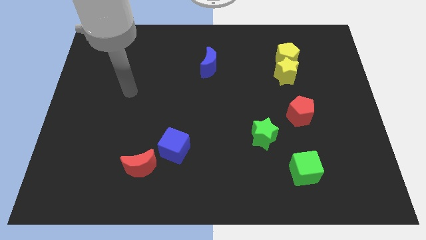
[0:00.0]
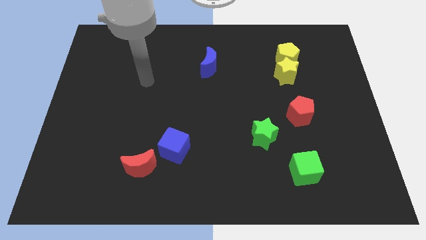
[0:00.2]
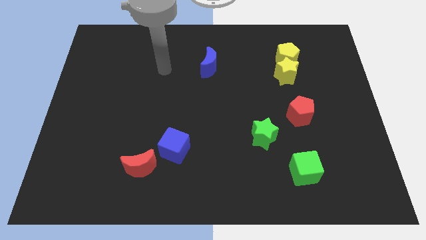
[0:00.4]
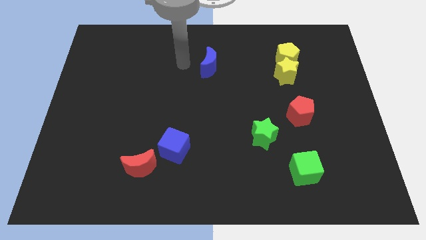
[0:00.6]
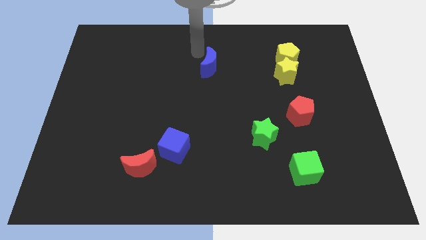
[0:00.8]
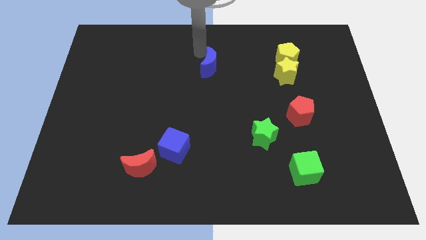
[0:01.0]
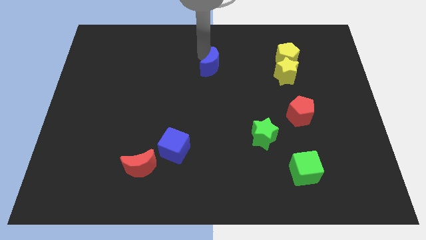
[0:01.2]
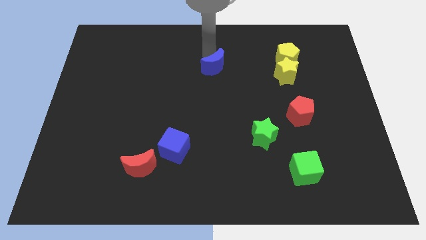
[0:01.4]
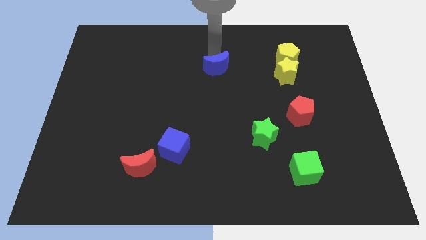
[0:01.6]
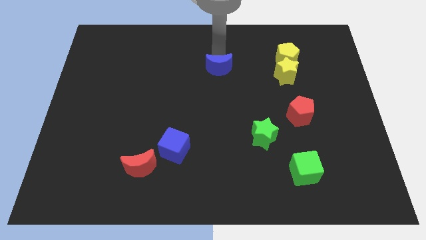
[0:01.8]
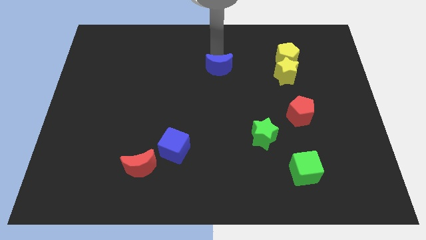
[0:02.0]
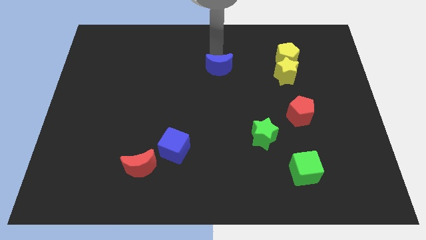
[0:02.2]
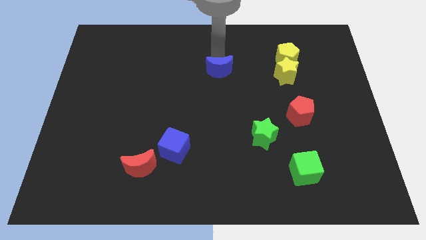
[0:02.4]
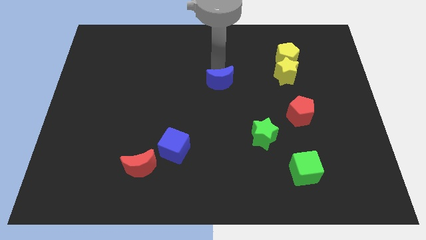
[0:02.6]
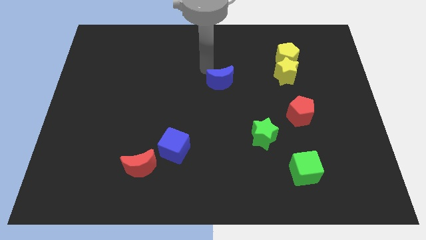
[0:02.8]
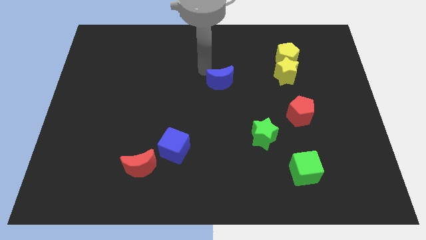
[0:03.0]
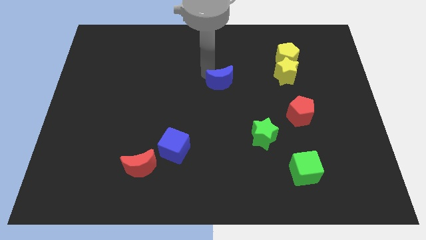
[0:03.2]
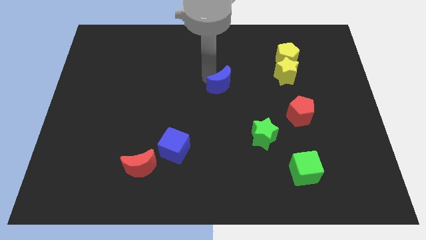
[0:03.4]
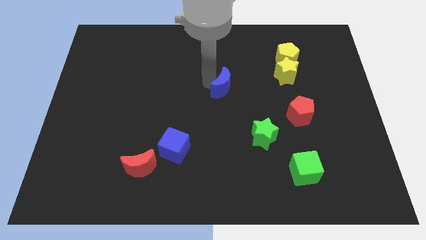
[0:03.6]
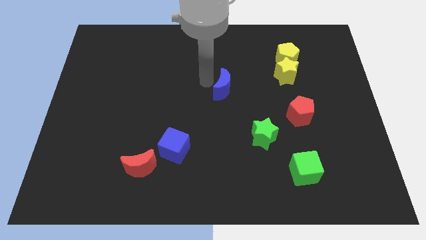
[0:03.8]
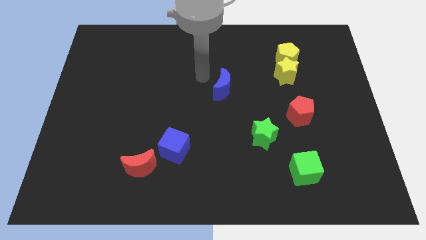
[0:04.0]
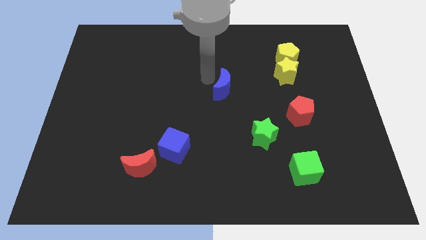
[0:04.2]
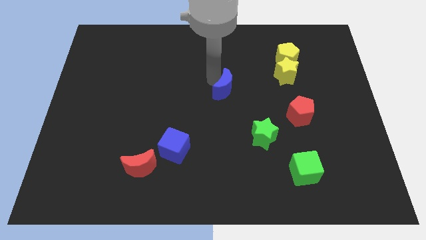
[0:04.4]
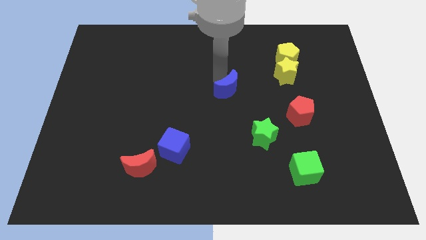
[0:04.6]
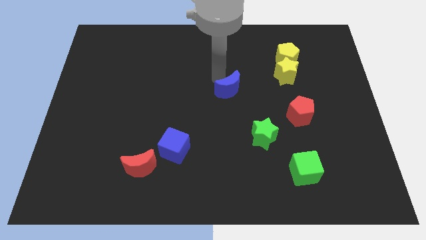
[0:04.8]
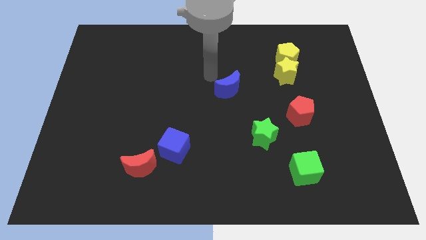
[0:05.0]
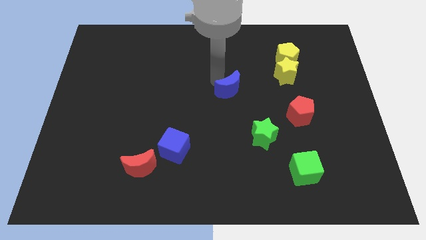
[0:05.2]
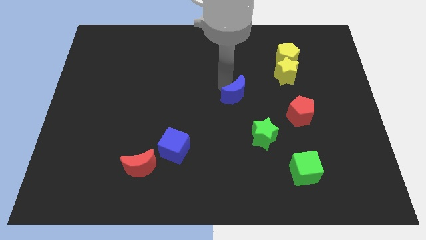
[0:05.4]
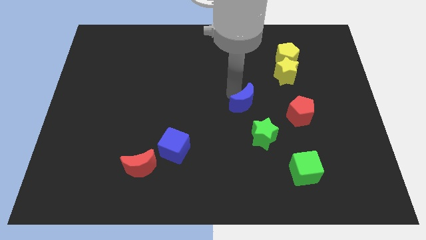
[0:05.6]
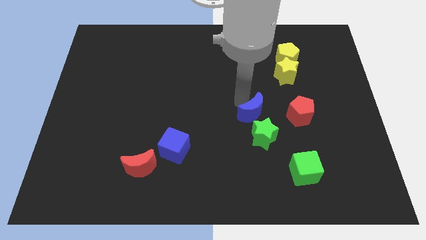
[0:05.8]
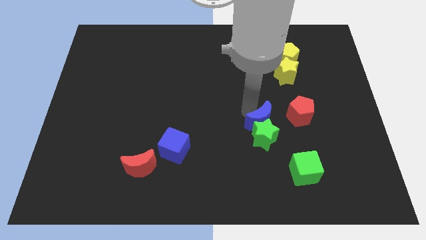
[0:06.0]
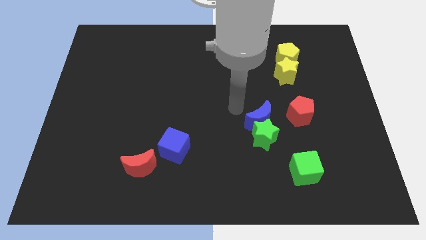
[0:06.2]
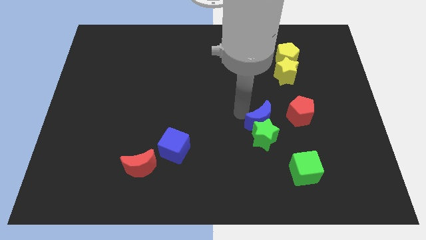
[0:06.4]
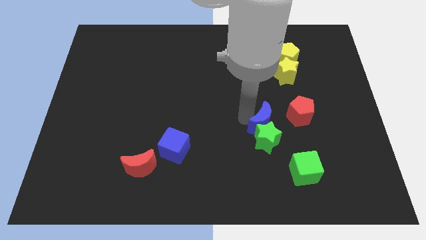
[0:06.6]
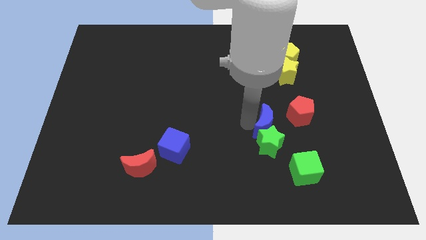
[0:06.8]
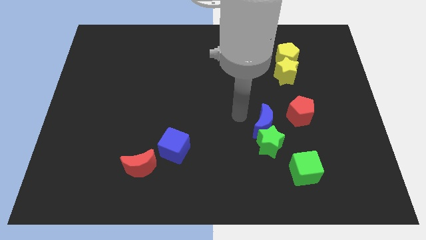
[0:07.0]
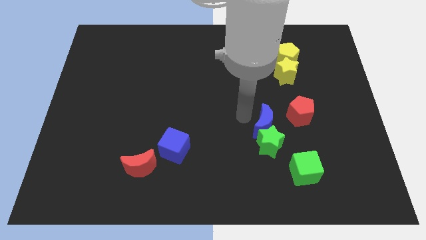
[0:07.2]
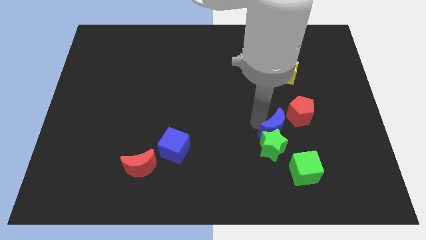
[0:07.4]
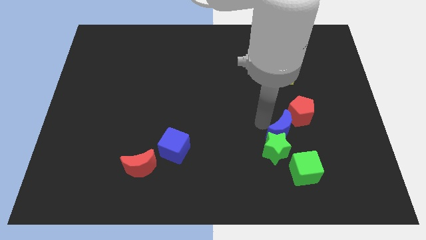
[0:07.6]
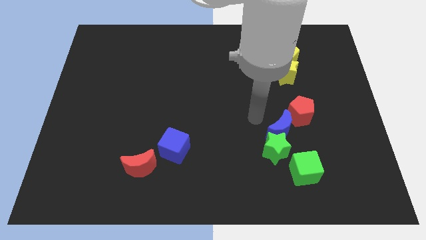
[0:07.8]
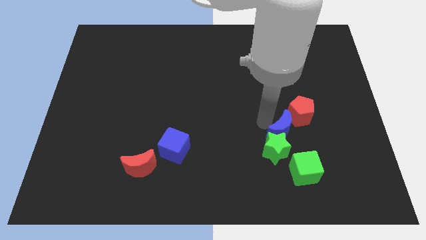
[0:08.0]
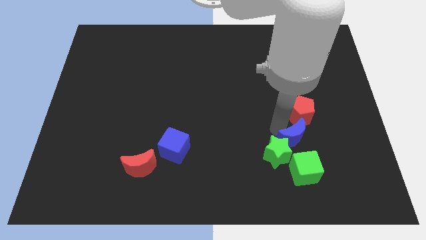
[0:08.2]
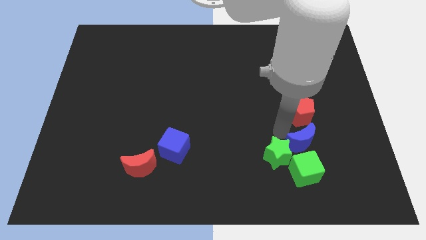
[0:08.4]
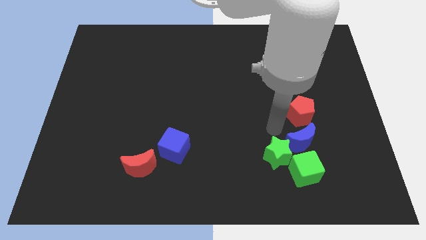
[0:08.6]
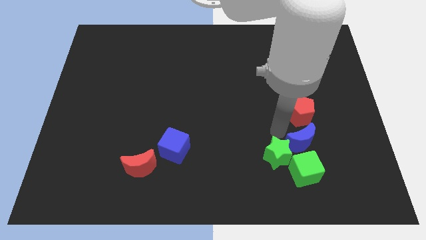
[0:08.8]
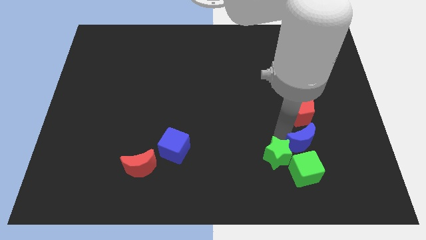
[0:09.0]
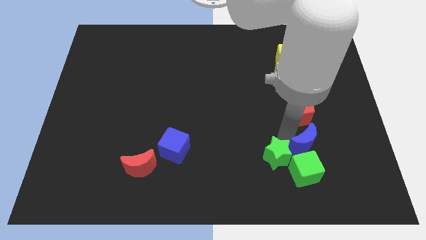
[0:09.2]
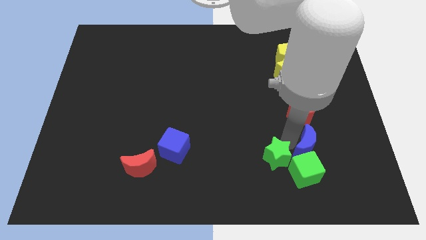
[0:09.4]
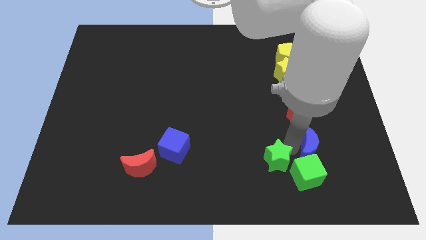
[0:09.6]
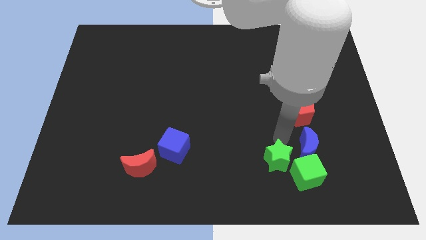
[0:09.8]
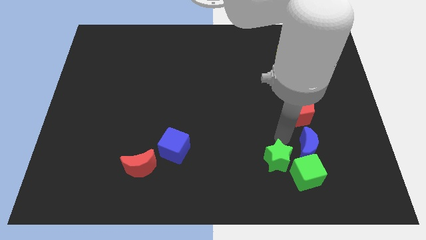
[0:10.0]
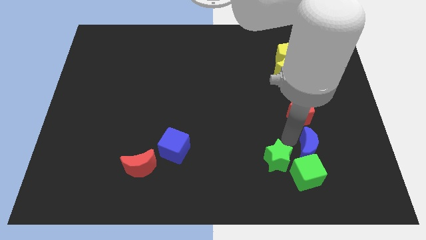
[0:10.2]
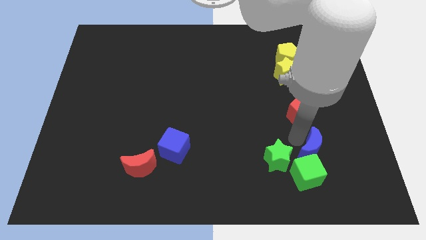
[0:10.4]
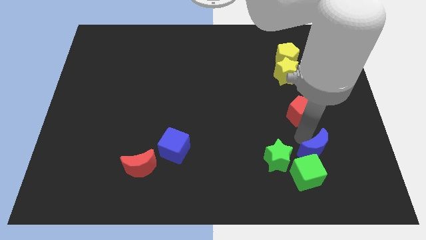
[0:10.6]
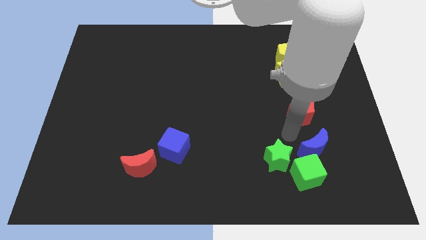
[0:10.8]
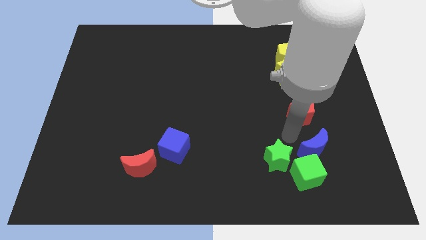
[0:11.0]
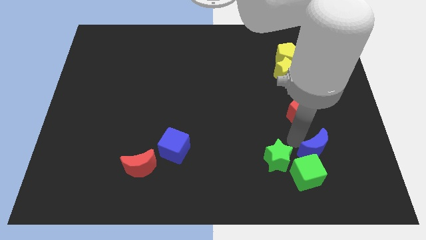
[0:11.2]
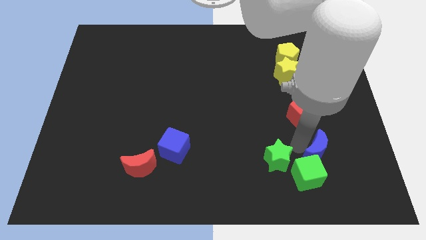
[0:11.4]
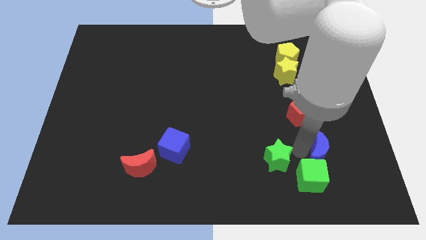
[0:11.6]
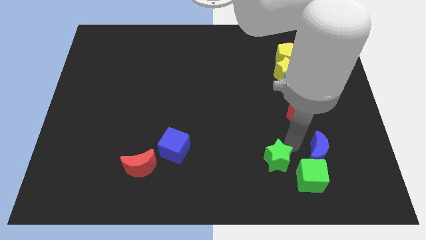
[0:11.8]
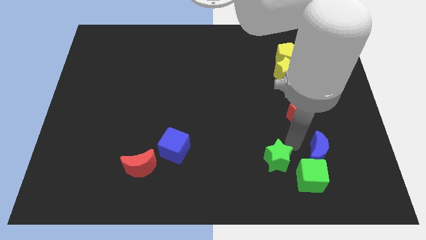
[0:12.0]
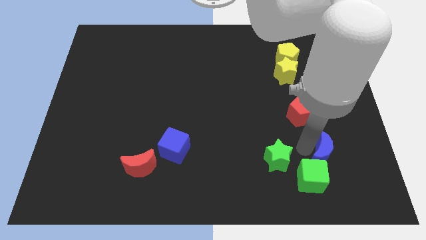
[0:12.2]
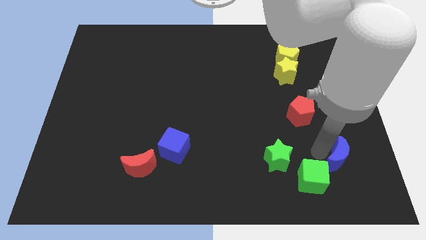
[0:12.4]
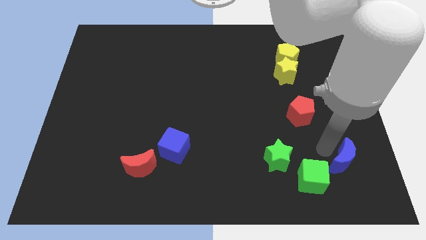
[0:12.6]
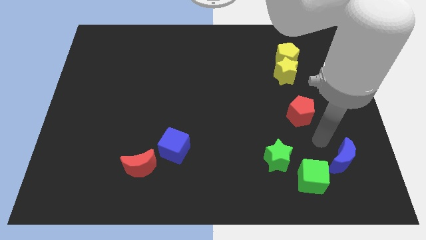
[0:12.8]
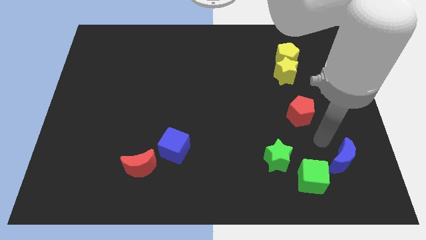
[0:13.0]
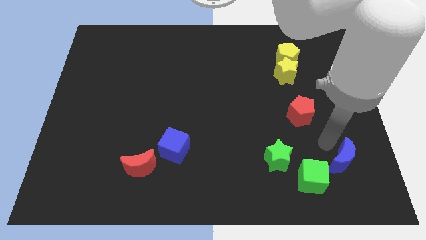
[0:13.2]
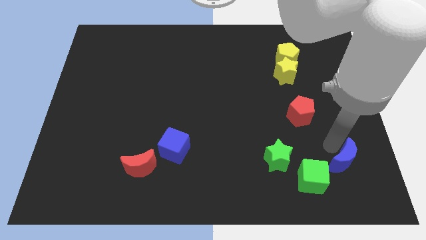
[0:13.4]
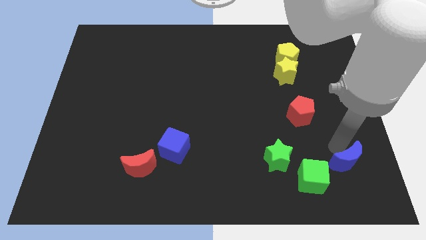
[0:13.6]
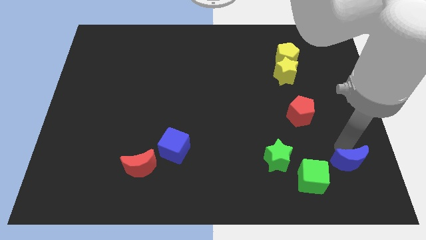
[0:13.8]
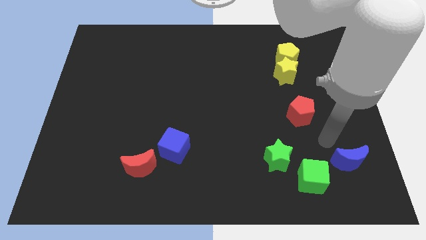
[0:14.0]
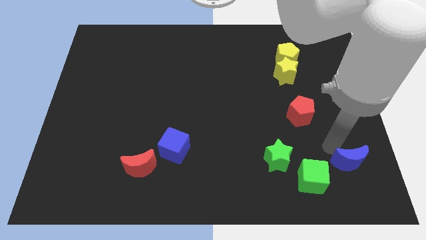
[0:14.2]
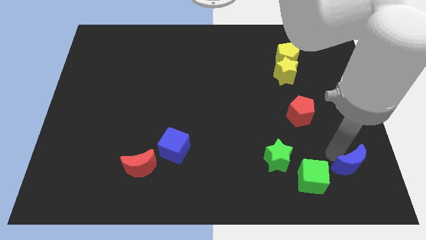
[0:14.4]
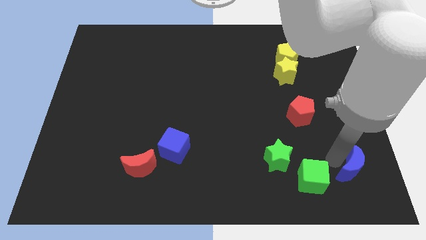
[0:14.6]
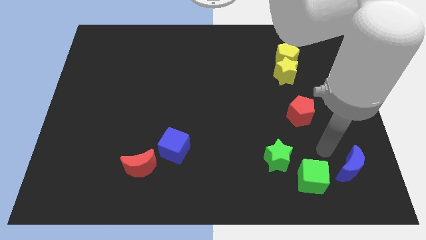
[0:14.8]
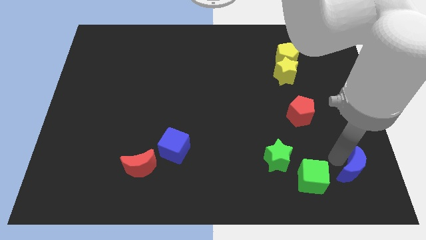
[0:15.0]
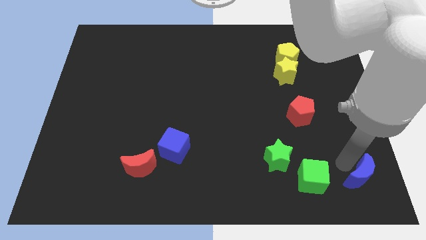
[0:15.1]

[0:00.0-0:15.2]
slide the blue moon to the bottom right of the board
